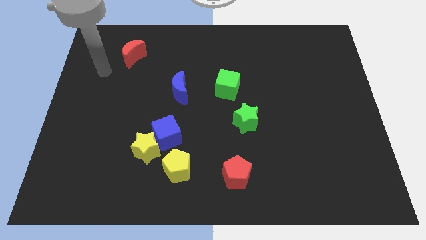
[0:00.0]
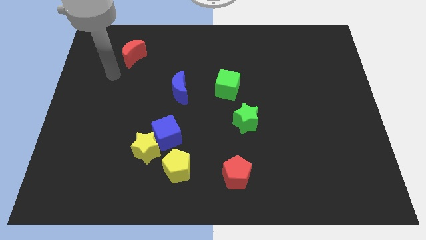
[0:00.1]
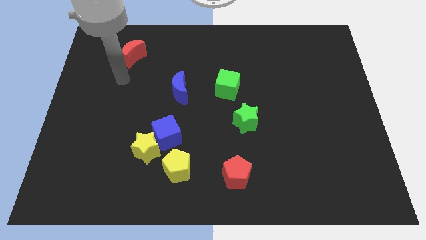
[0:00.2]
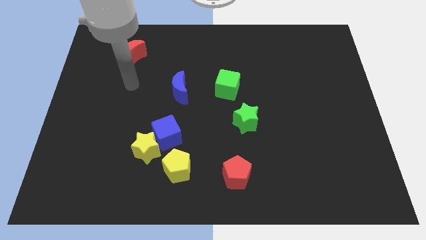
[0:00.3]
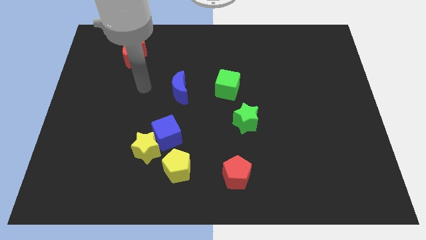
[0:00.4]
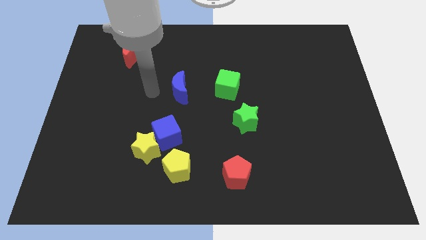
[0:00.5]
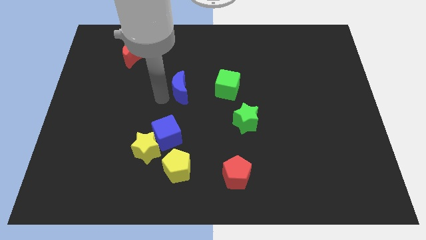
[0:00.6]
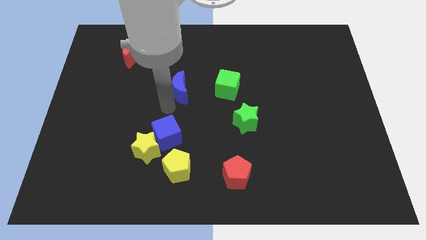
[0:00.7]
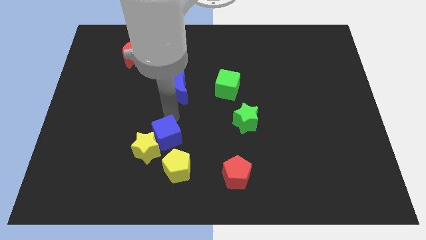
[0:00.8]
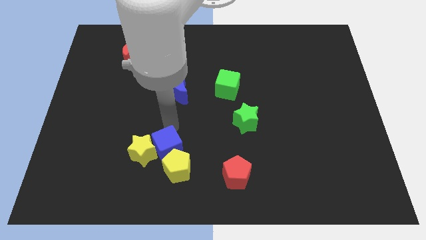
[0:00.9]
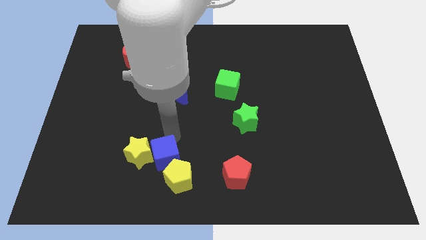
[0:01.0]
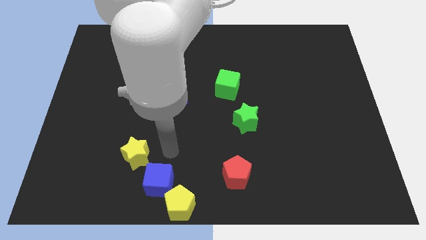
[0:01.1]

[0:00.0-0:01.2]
pull the yellow star apart from the blue cube and yellow pentagon

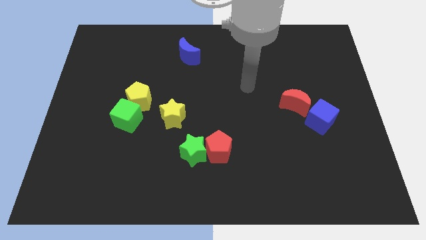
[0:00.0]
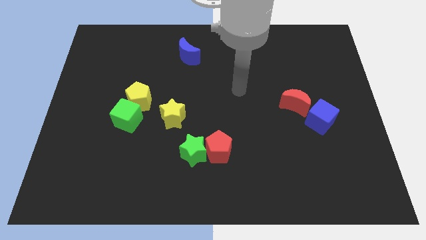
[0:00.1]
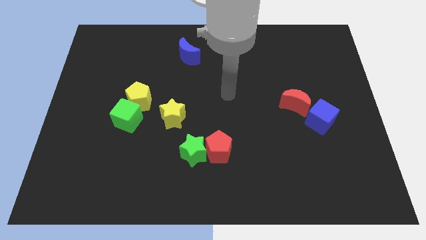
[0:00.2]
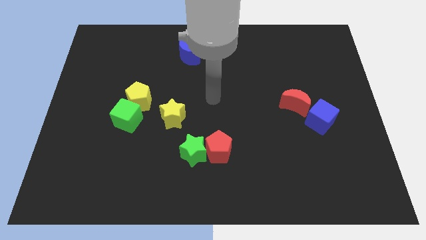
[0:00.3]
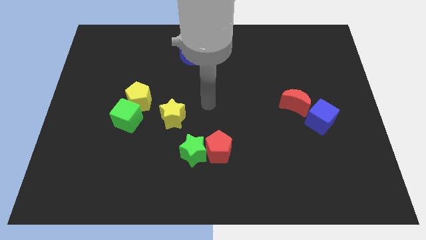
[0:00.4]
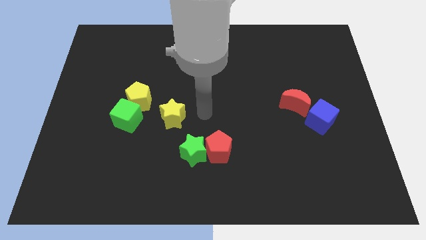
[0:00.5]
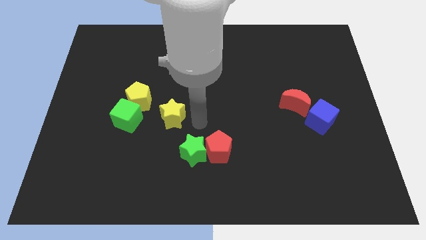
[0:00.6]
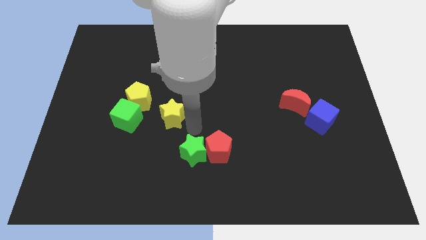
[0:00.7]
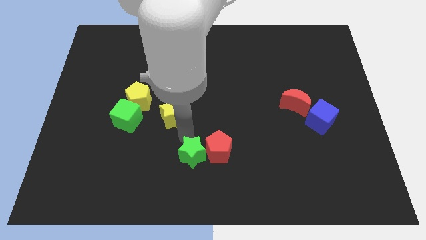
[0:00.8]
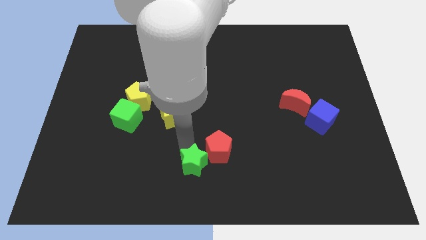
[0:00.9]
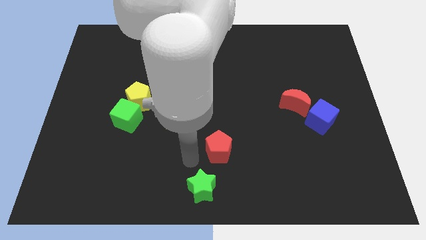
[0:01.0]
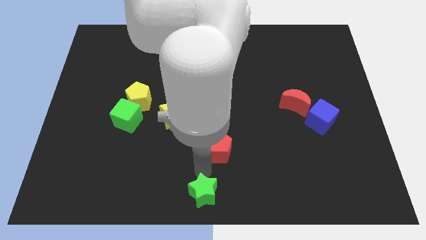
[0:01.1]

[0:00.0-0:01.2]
move the red pentagon away from the green star

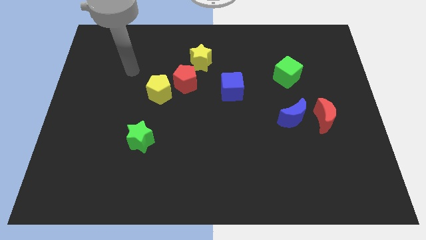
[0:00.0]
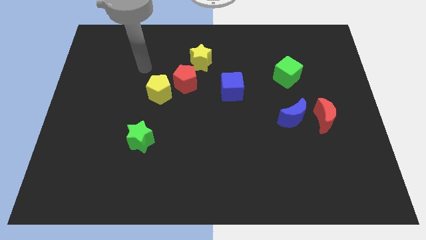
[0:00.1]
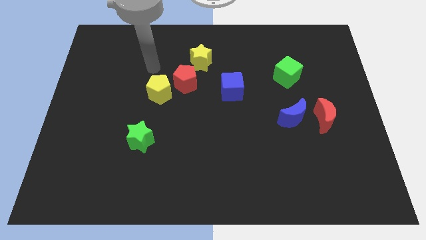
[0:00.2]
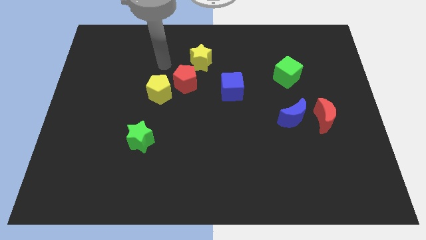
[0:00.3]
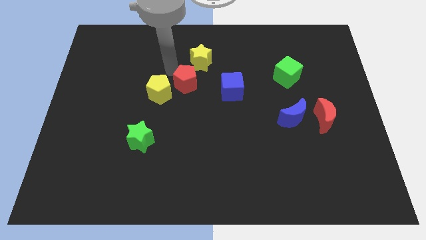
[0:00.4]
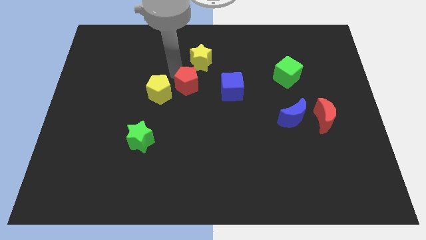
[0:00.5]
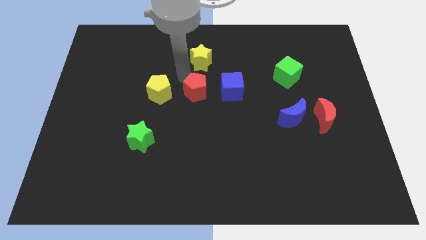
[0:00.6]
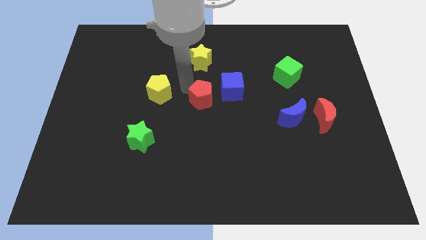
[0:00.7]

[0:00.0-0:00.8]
move the yellow pentagon away from the red pentagon

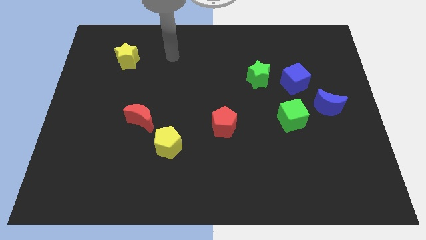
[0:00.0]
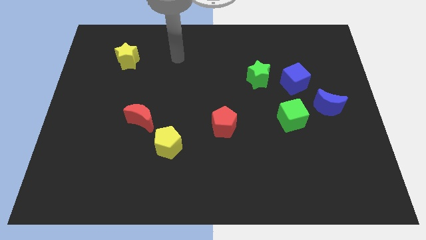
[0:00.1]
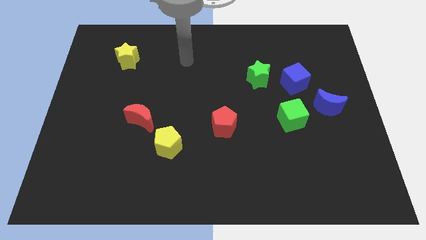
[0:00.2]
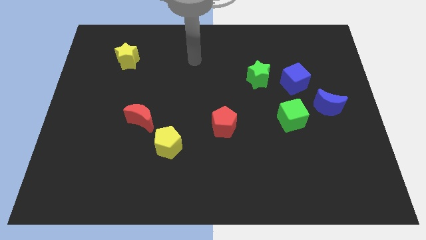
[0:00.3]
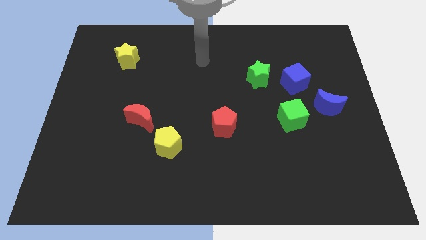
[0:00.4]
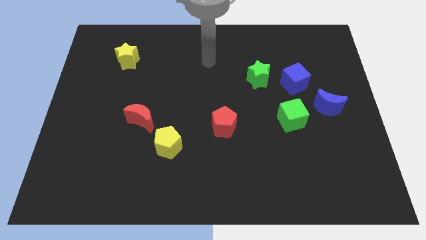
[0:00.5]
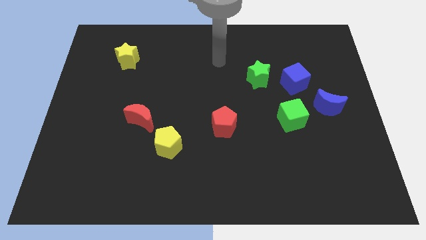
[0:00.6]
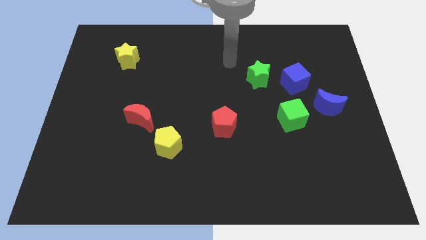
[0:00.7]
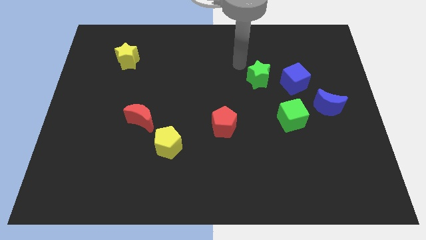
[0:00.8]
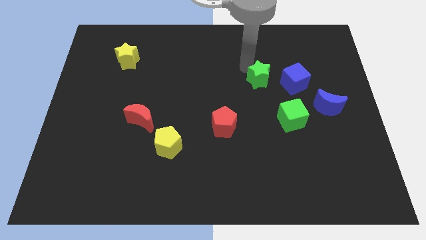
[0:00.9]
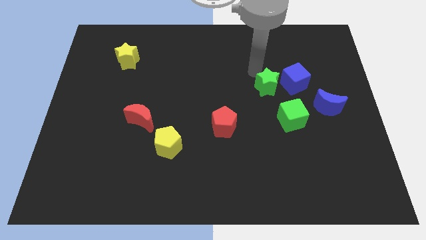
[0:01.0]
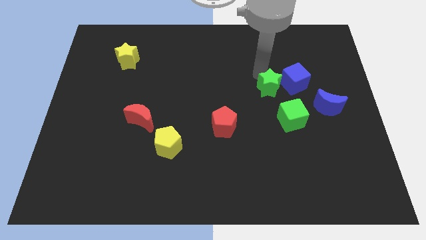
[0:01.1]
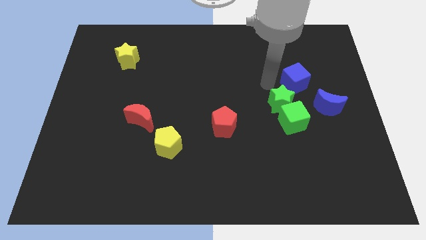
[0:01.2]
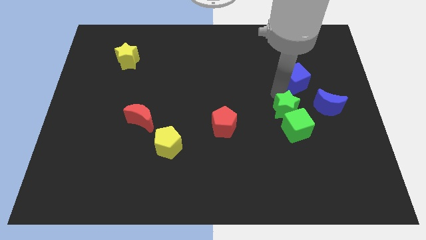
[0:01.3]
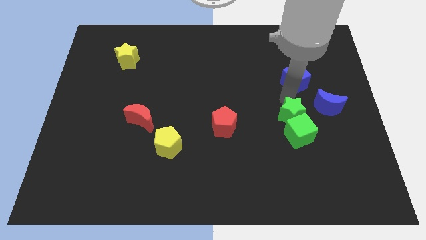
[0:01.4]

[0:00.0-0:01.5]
move the blue cube away from the green star

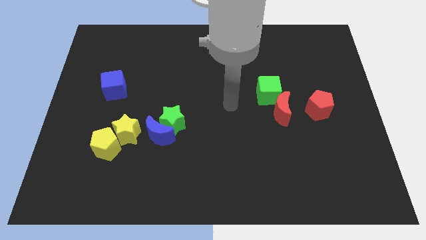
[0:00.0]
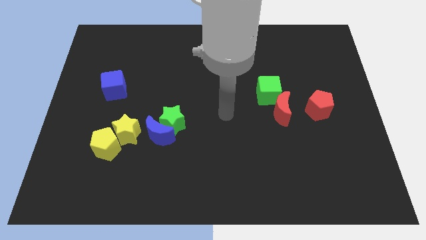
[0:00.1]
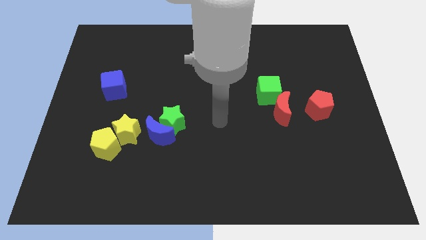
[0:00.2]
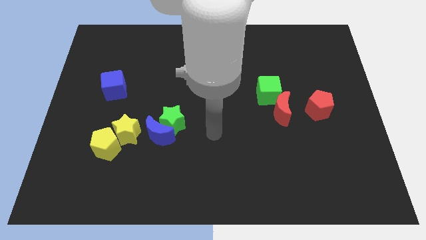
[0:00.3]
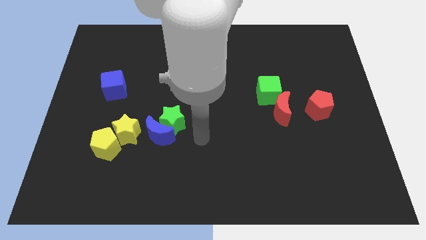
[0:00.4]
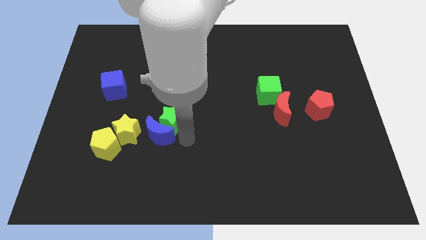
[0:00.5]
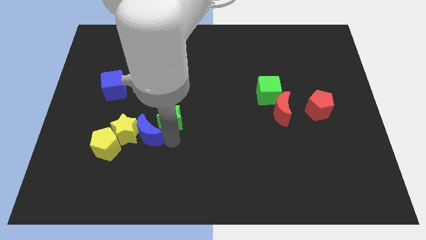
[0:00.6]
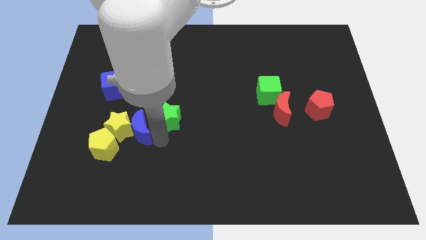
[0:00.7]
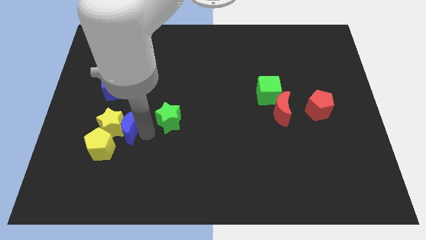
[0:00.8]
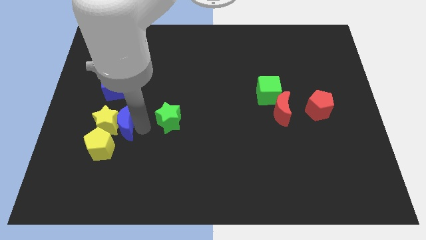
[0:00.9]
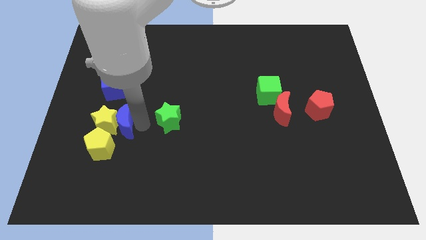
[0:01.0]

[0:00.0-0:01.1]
move the green star away from the blue moon

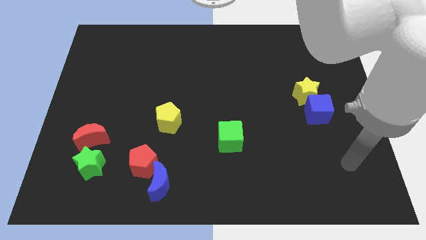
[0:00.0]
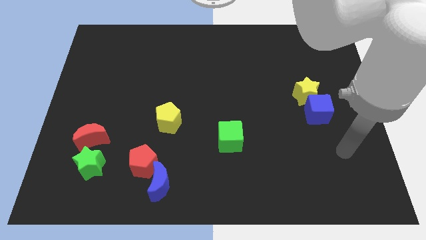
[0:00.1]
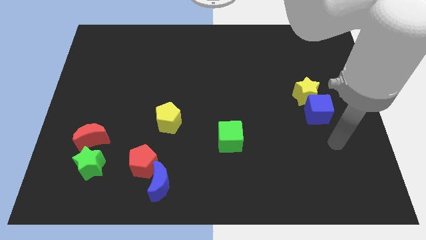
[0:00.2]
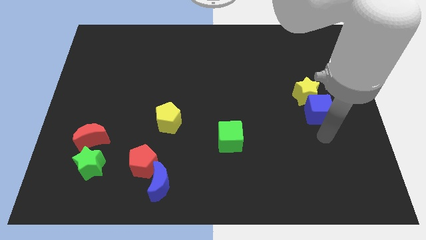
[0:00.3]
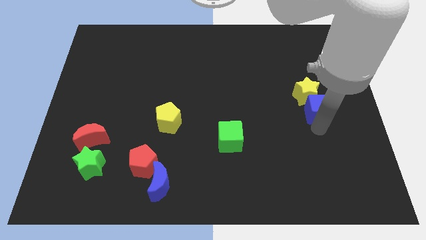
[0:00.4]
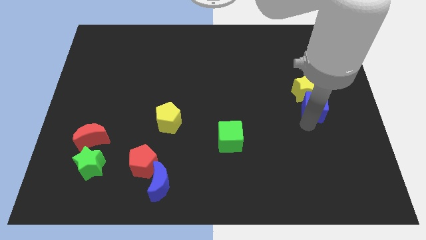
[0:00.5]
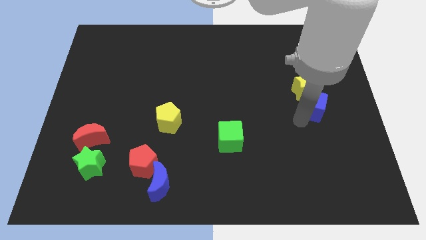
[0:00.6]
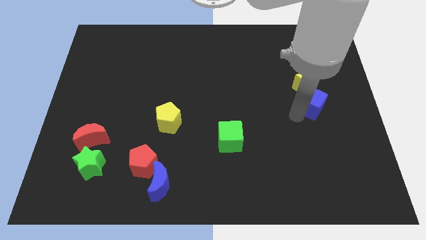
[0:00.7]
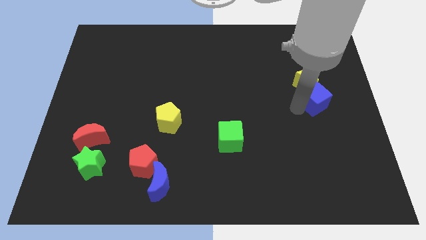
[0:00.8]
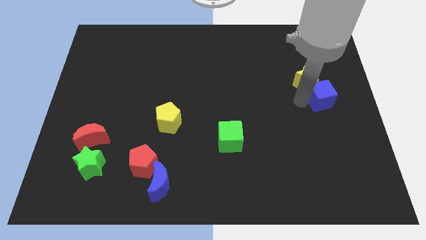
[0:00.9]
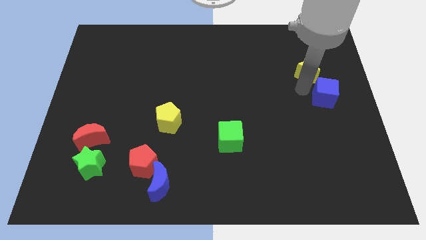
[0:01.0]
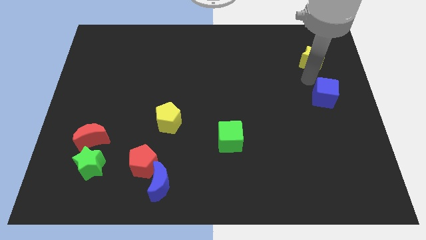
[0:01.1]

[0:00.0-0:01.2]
move the blue cube away from the yellow star

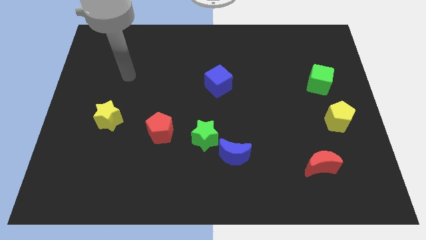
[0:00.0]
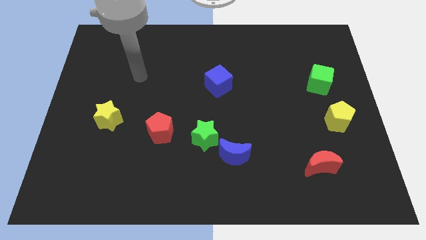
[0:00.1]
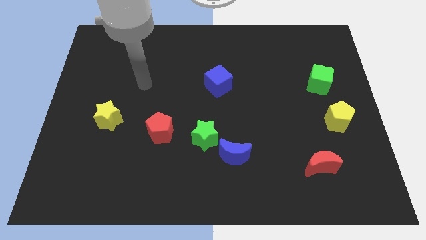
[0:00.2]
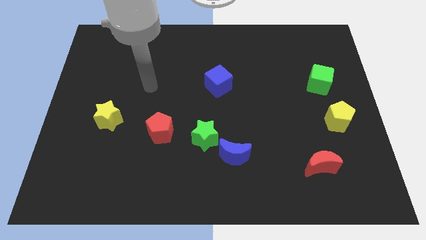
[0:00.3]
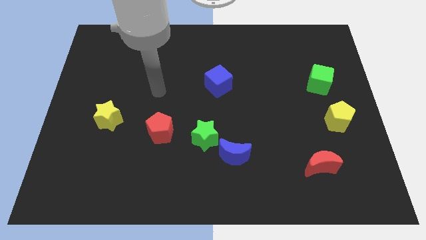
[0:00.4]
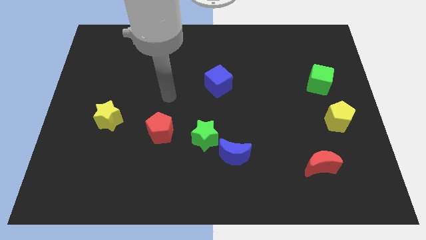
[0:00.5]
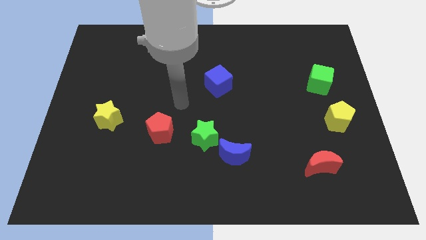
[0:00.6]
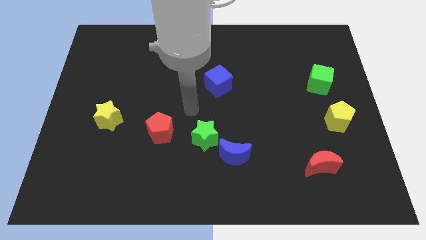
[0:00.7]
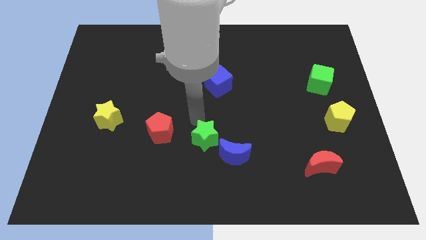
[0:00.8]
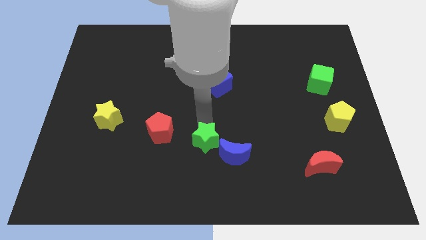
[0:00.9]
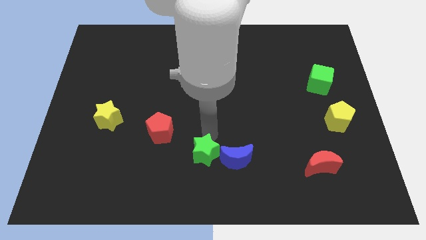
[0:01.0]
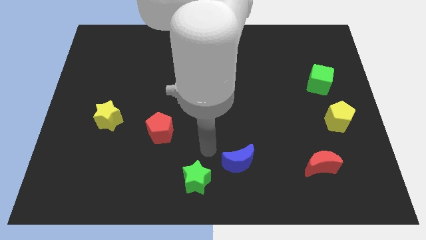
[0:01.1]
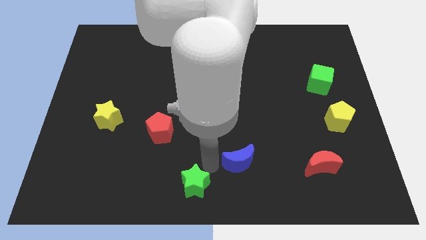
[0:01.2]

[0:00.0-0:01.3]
pull the blue moon apart from the green star

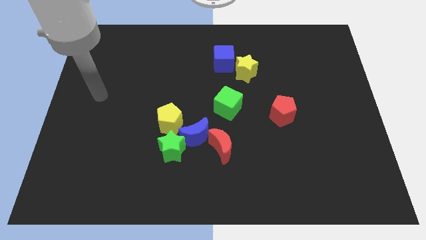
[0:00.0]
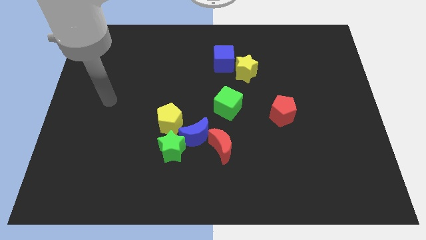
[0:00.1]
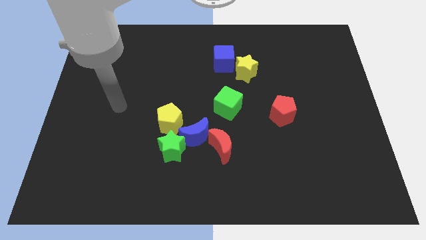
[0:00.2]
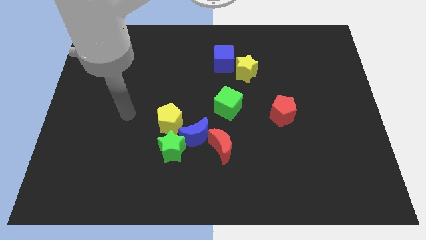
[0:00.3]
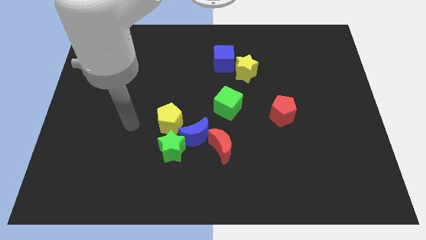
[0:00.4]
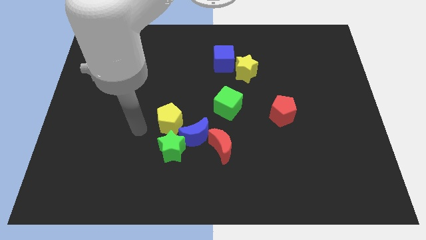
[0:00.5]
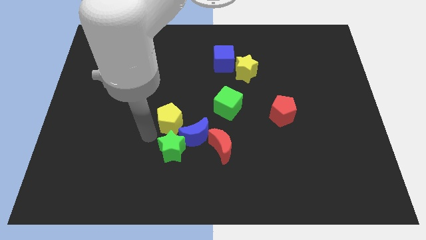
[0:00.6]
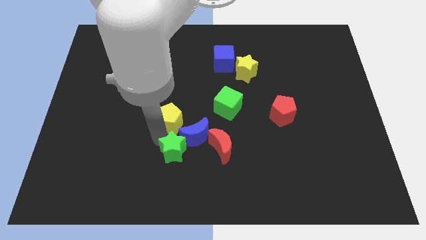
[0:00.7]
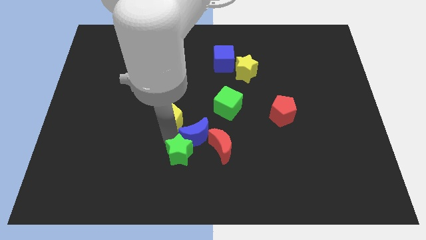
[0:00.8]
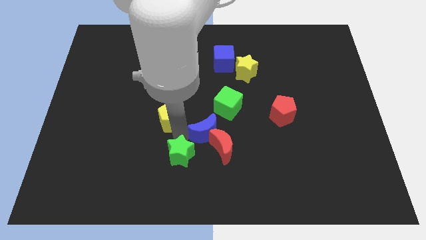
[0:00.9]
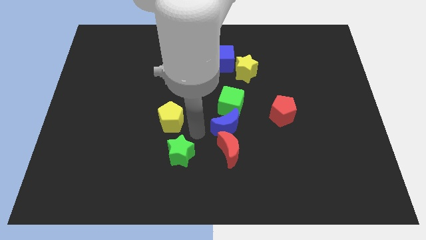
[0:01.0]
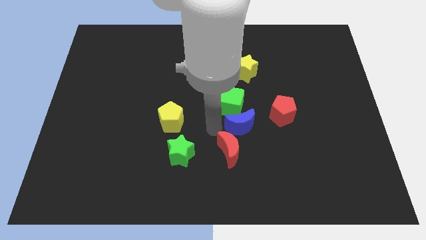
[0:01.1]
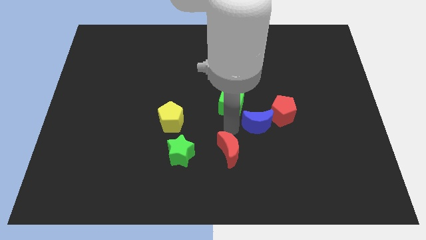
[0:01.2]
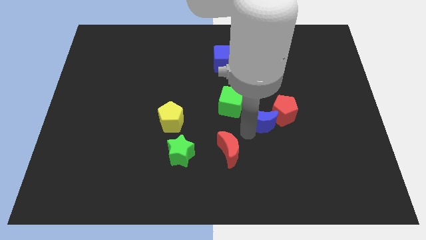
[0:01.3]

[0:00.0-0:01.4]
separate the red moon from the blue moon
